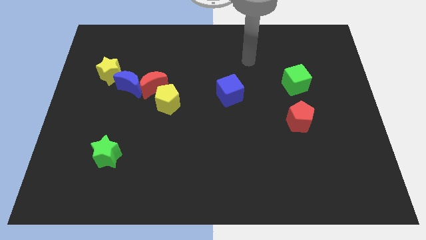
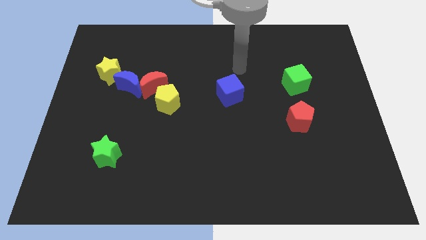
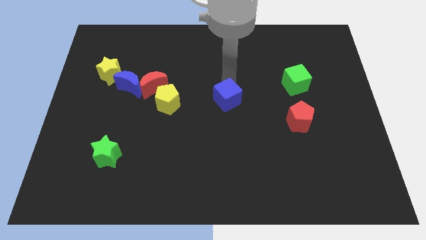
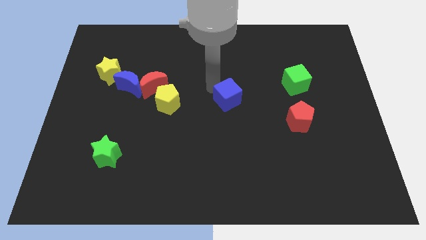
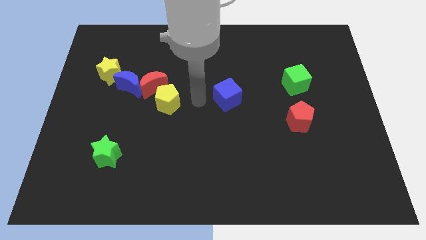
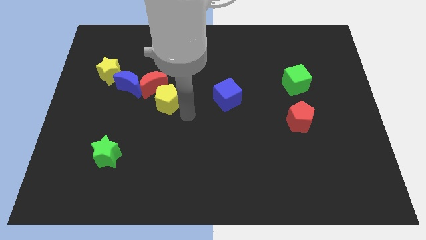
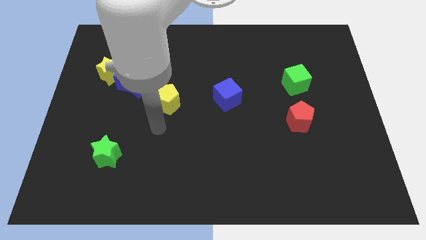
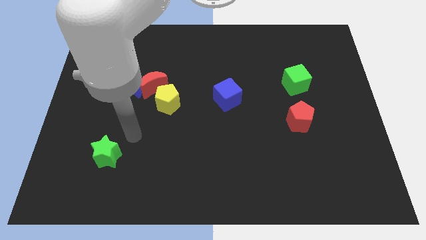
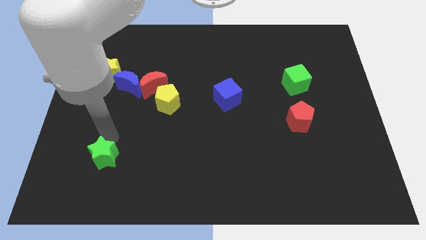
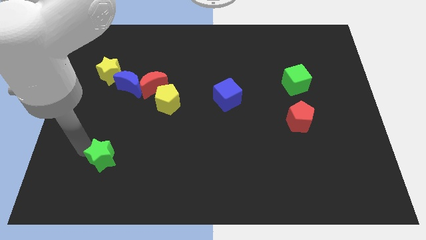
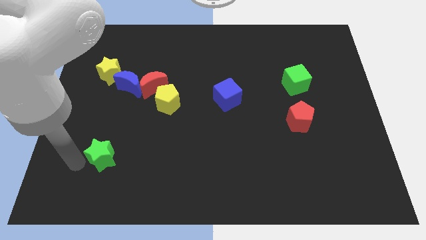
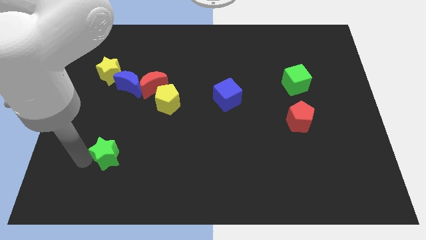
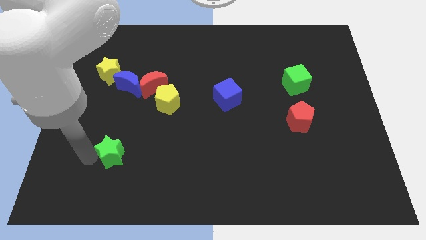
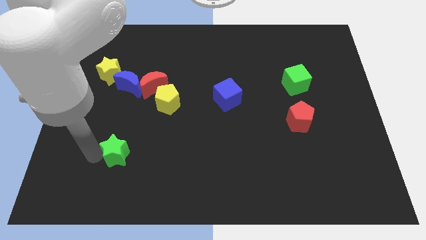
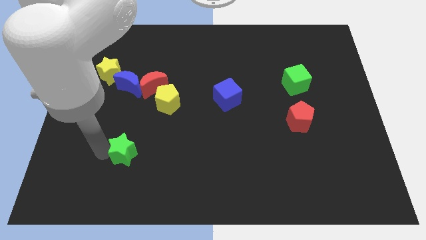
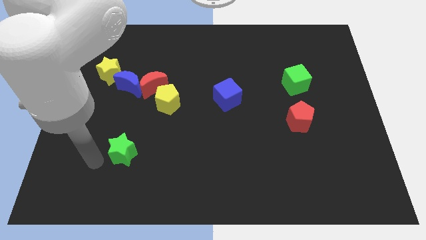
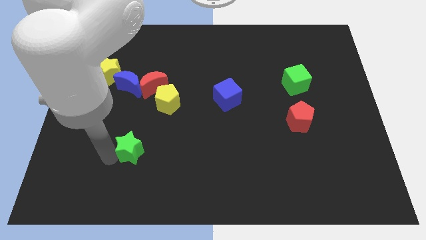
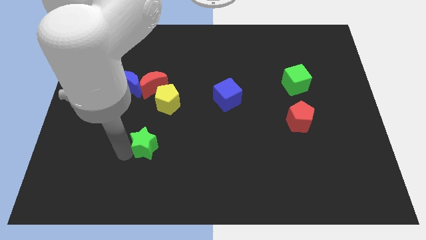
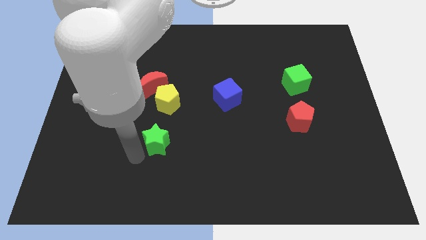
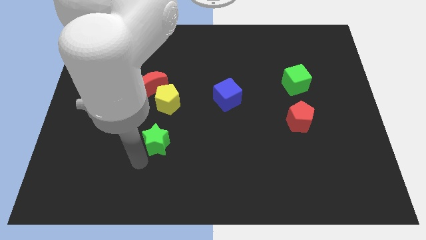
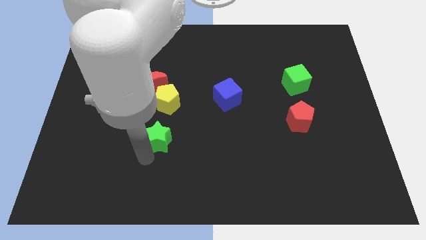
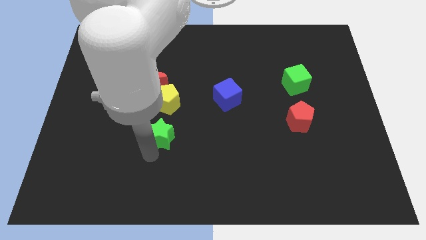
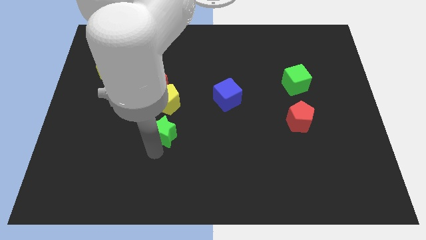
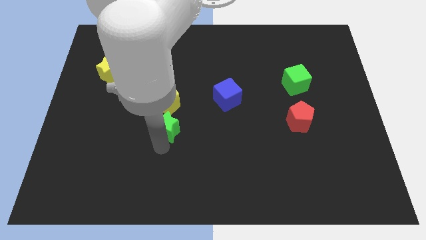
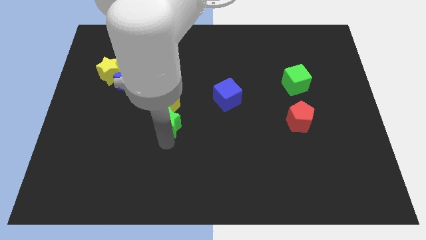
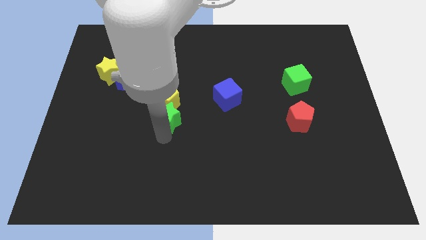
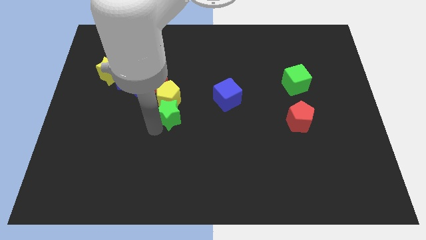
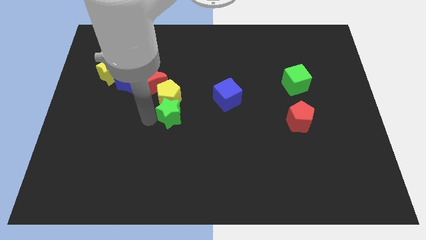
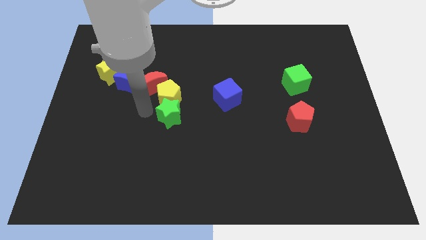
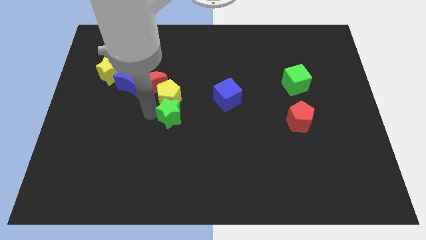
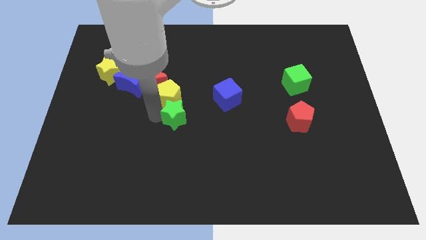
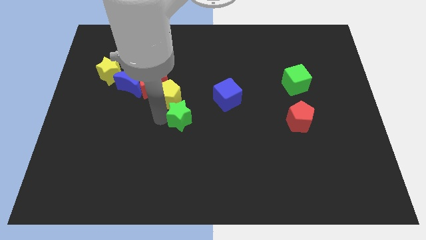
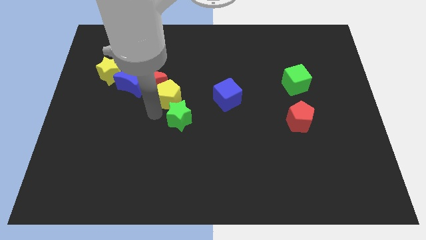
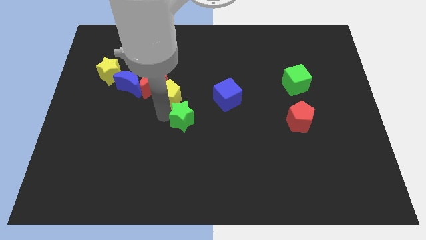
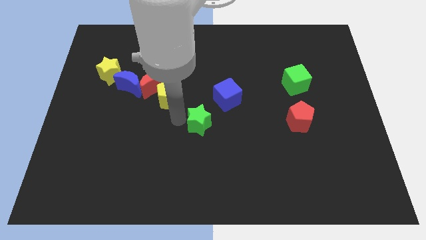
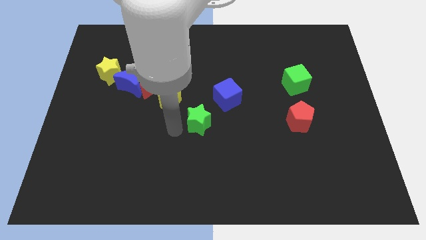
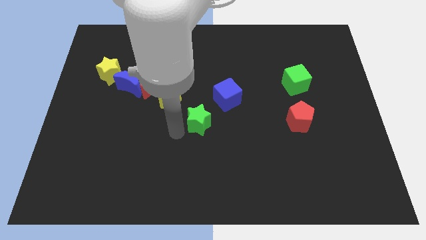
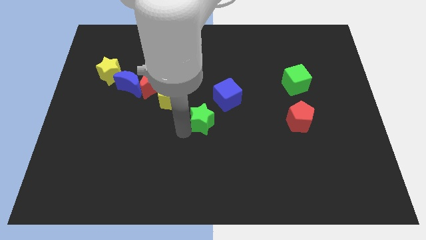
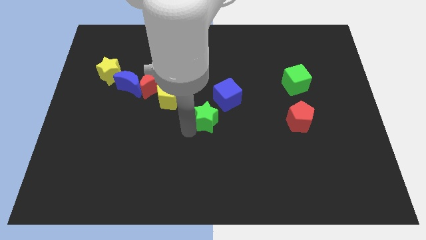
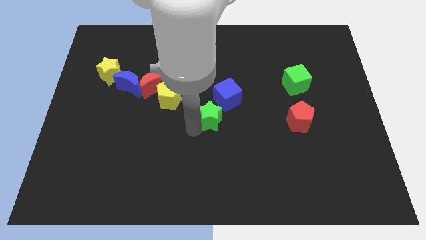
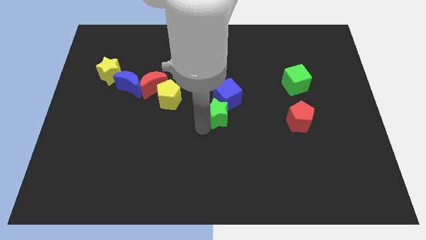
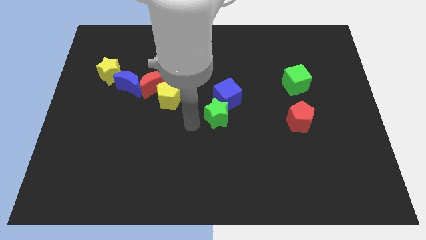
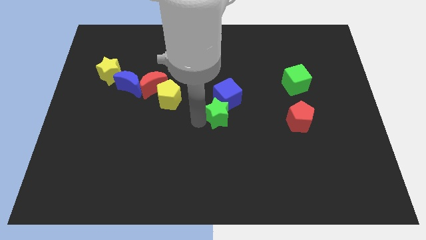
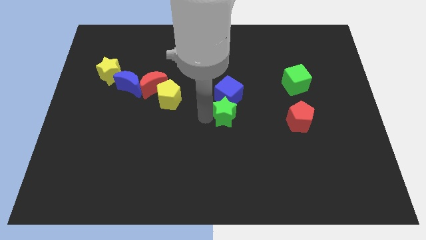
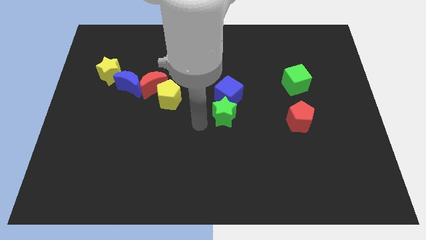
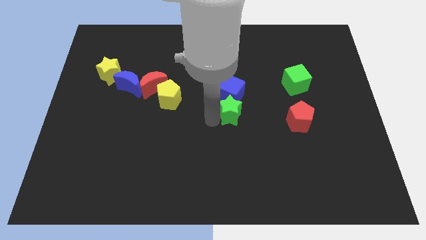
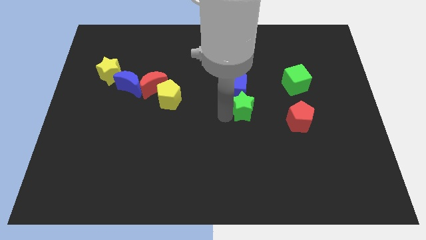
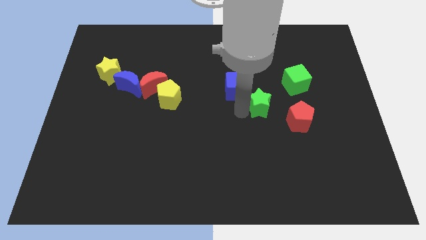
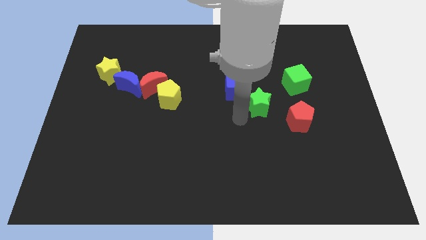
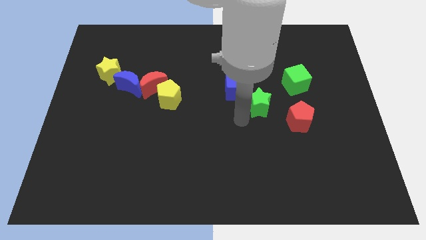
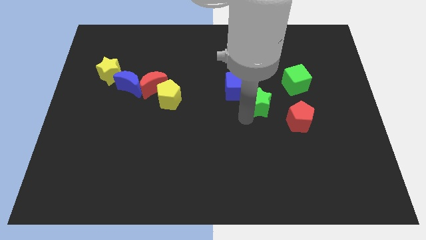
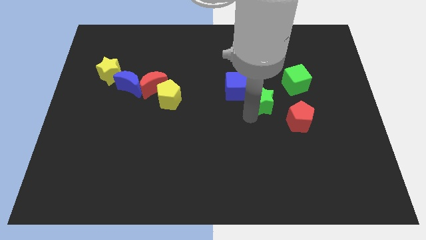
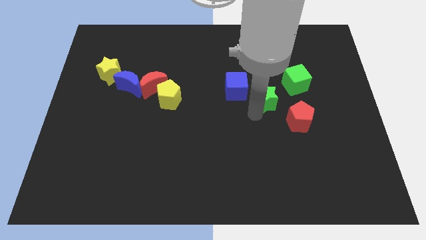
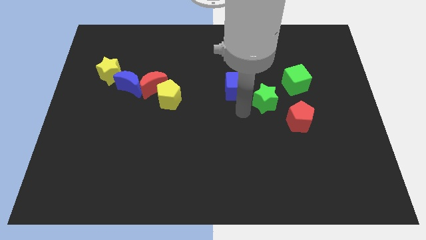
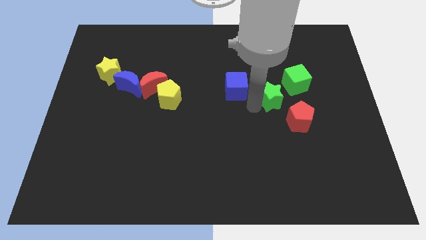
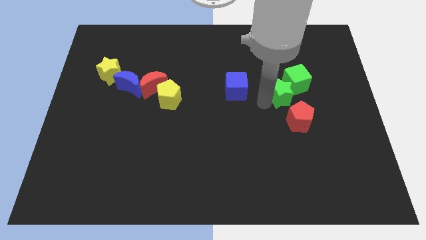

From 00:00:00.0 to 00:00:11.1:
slide the green star close to the green cube
